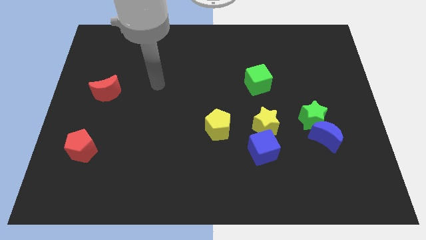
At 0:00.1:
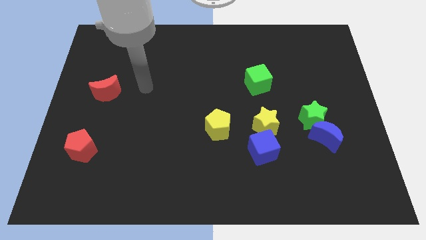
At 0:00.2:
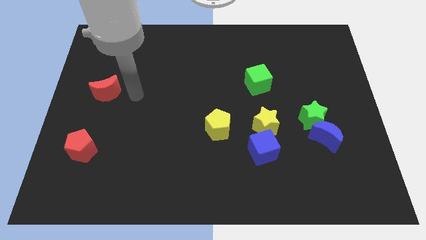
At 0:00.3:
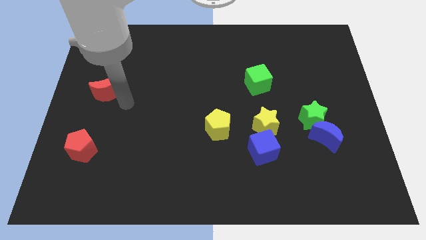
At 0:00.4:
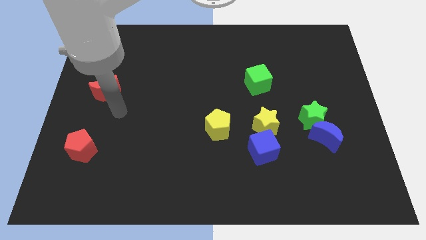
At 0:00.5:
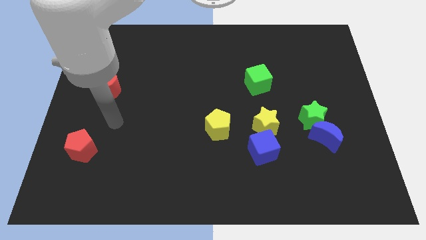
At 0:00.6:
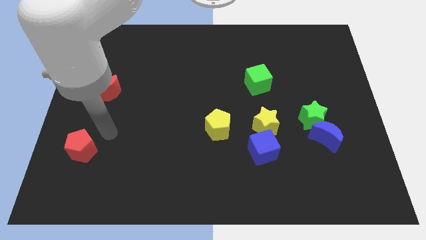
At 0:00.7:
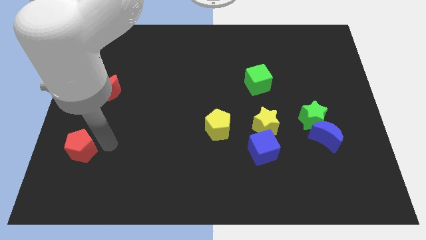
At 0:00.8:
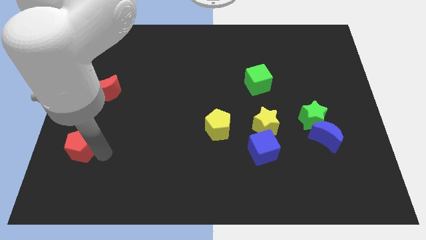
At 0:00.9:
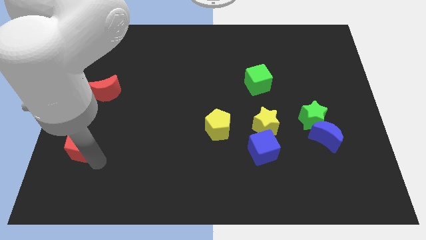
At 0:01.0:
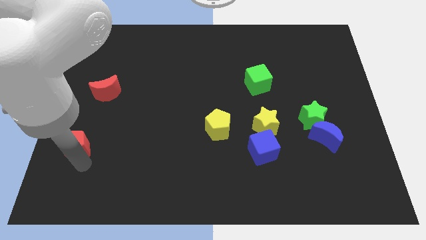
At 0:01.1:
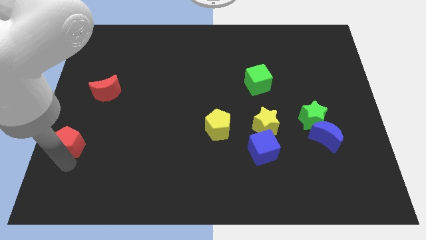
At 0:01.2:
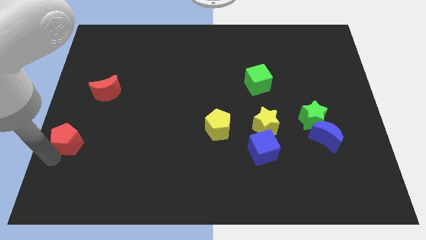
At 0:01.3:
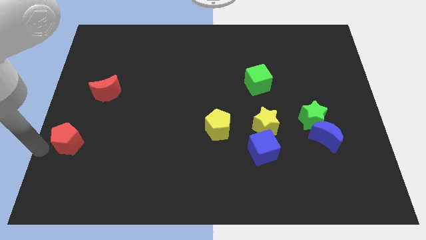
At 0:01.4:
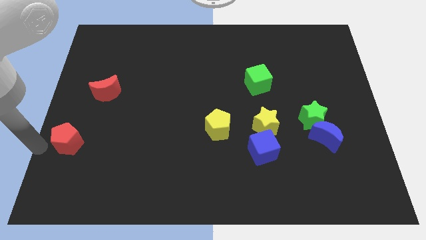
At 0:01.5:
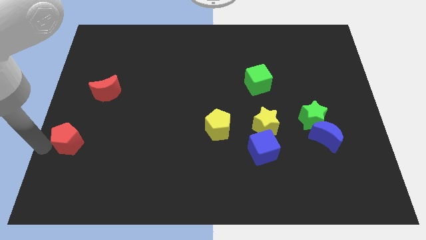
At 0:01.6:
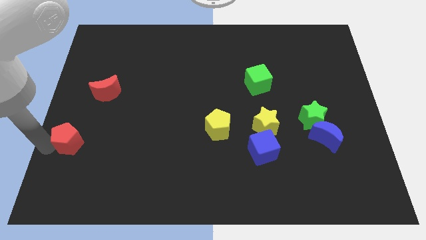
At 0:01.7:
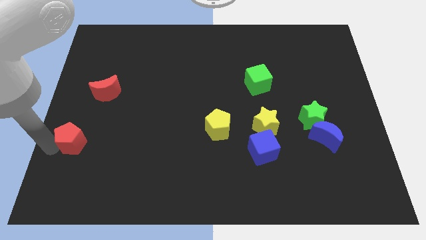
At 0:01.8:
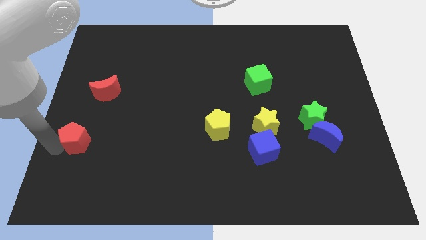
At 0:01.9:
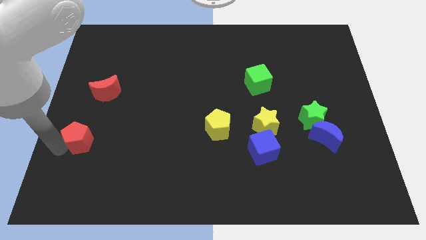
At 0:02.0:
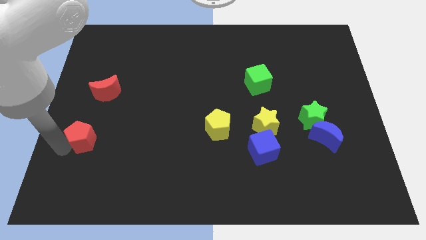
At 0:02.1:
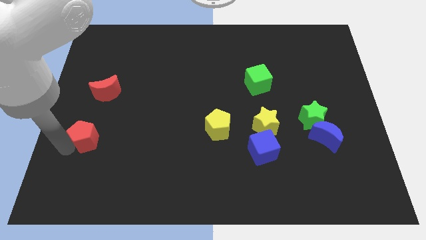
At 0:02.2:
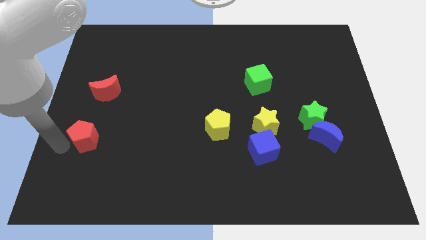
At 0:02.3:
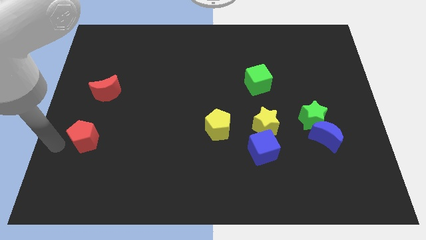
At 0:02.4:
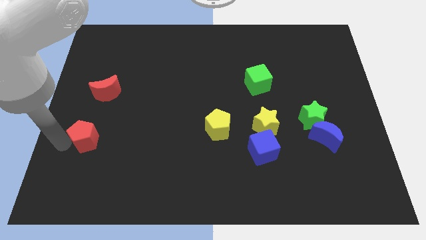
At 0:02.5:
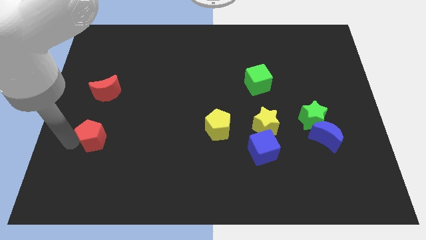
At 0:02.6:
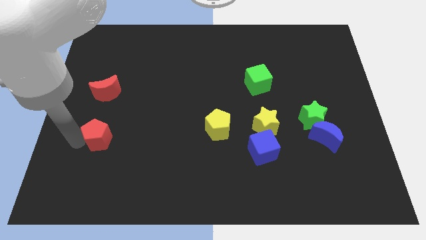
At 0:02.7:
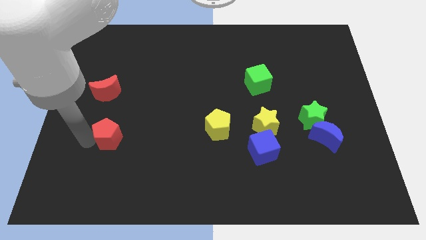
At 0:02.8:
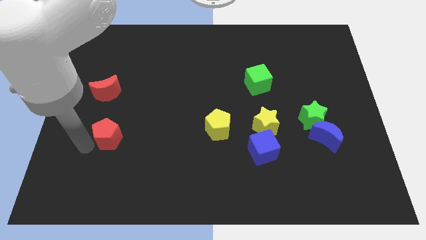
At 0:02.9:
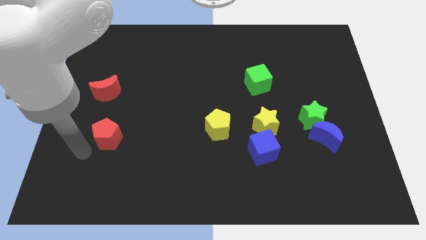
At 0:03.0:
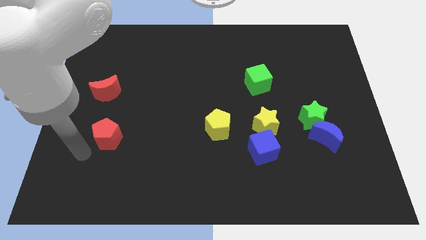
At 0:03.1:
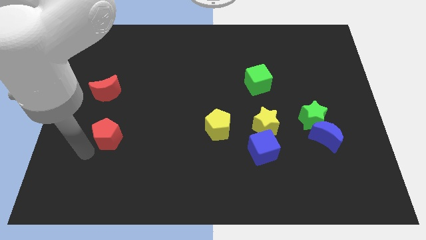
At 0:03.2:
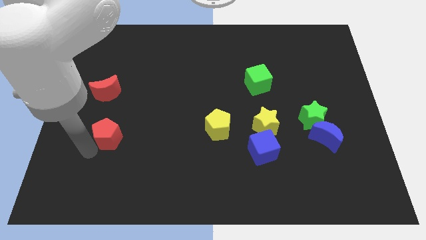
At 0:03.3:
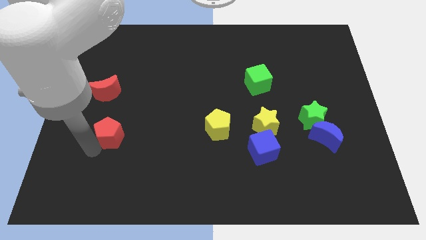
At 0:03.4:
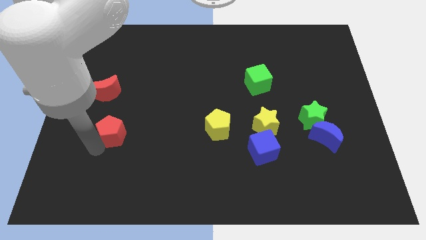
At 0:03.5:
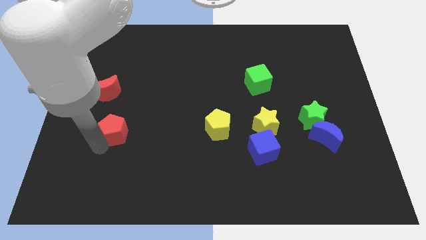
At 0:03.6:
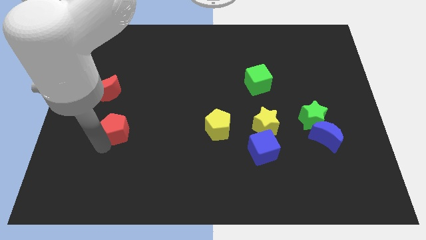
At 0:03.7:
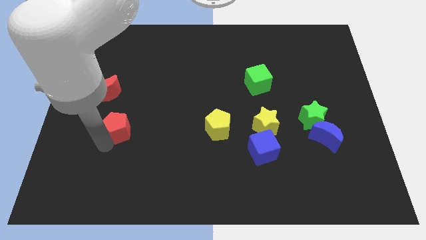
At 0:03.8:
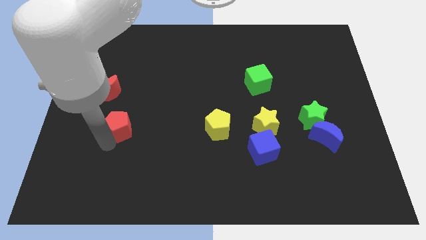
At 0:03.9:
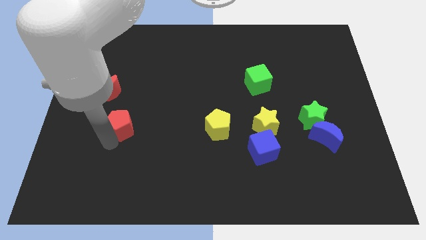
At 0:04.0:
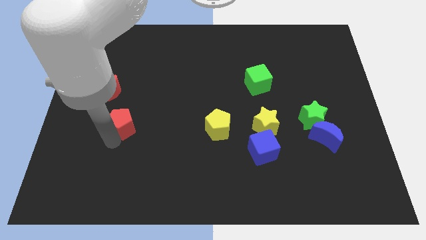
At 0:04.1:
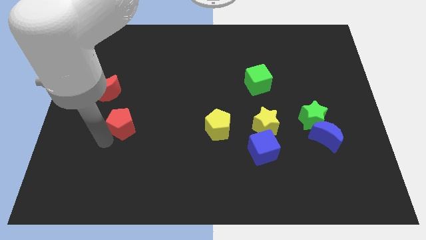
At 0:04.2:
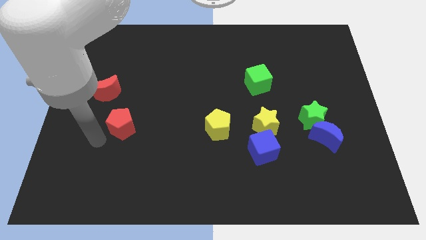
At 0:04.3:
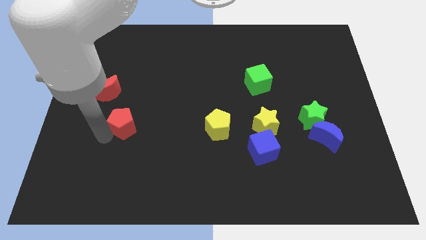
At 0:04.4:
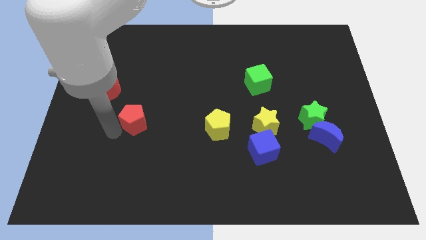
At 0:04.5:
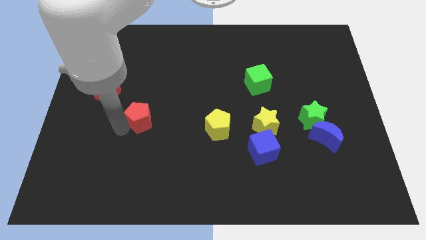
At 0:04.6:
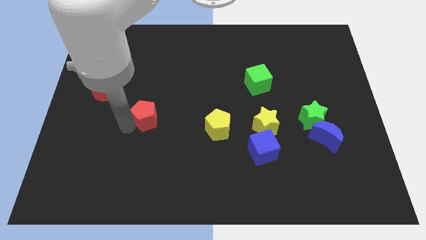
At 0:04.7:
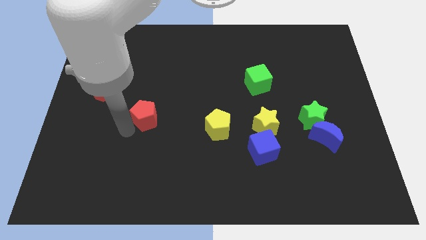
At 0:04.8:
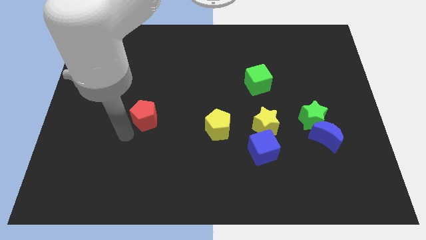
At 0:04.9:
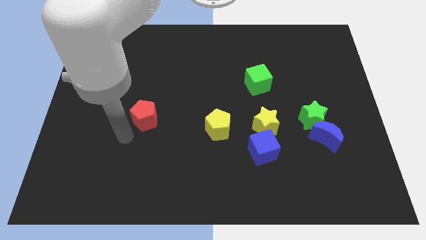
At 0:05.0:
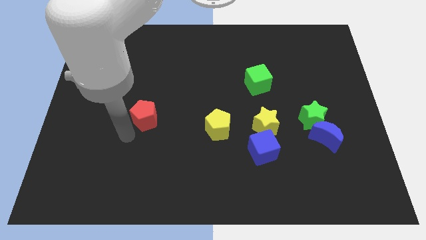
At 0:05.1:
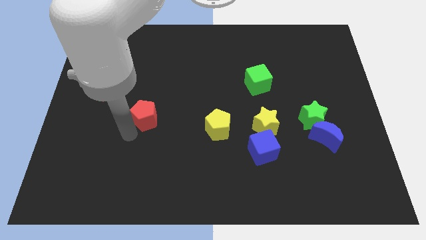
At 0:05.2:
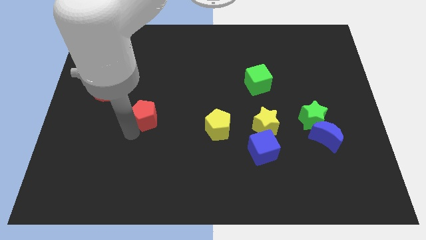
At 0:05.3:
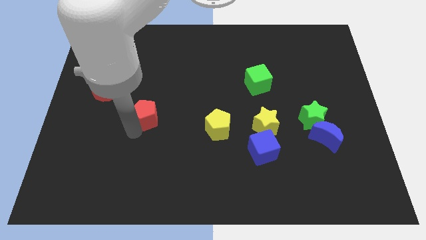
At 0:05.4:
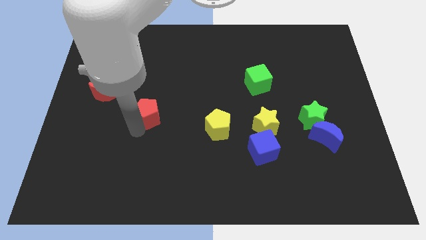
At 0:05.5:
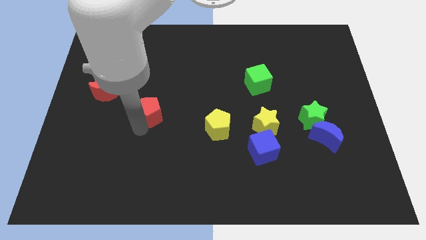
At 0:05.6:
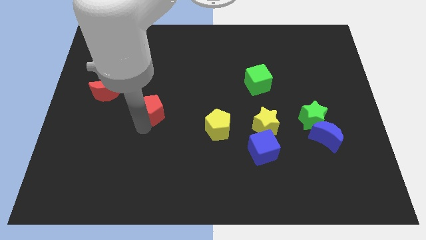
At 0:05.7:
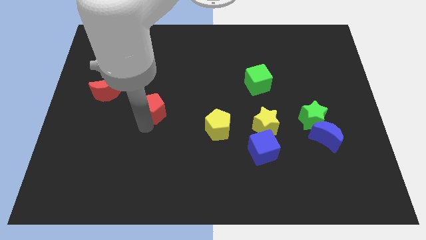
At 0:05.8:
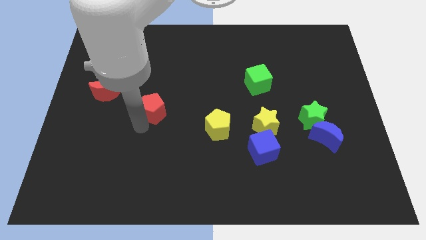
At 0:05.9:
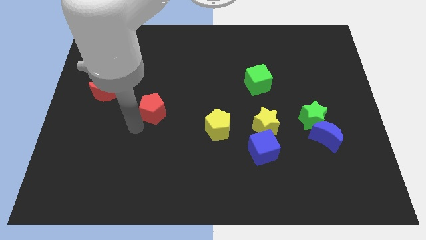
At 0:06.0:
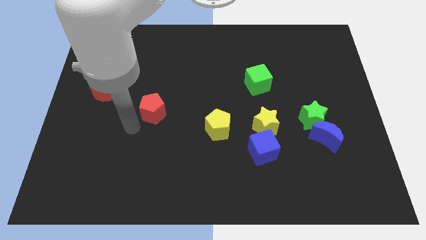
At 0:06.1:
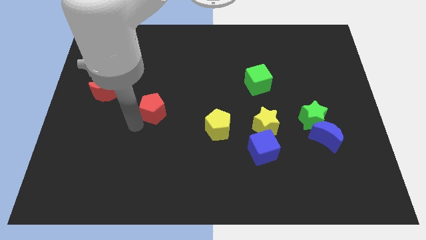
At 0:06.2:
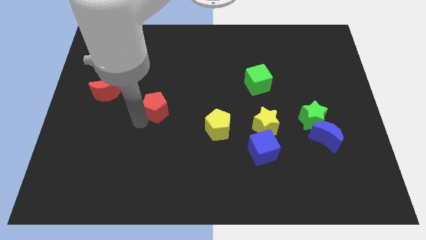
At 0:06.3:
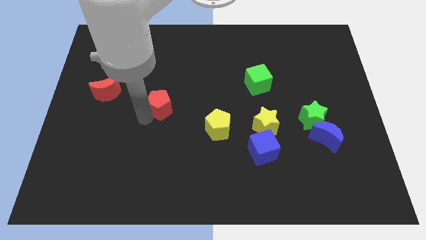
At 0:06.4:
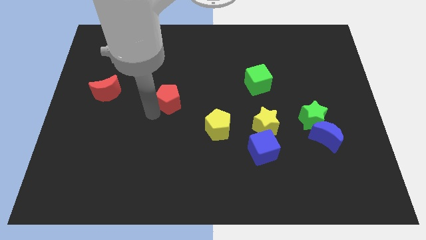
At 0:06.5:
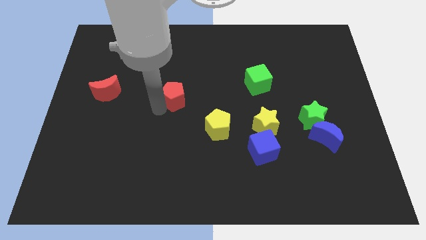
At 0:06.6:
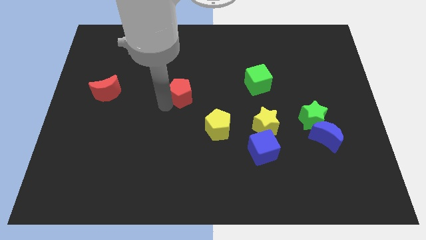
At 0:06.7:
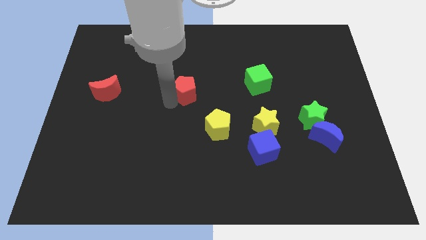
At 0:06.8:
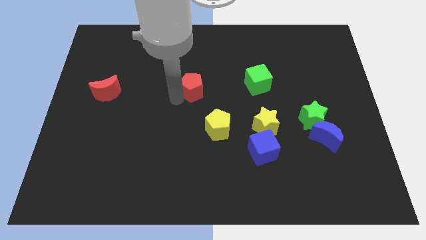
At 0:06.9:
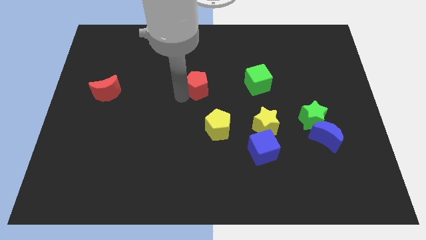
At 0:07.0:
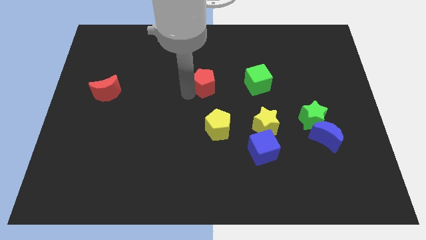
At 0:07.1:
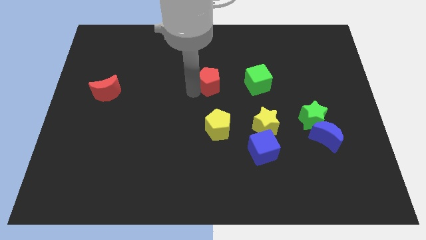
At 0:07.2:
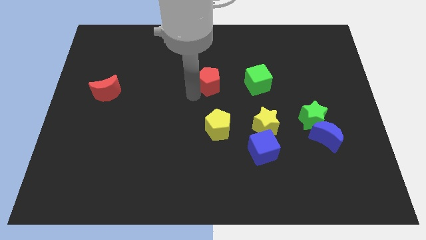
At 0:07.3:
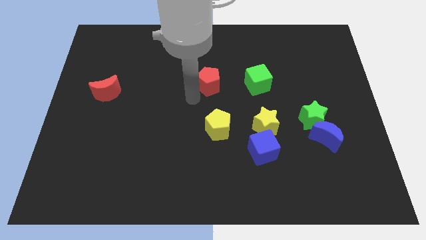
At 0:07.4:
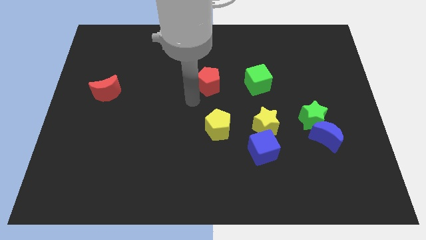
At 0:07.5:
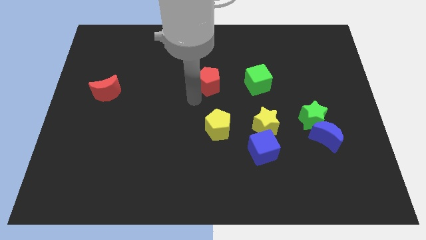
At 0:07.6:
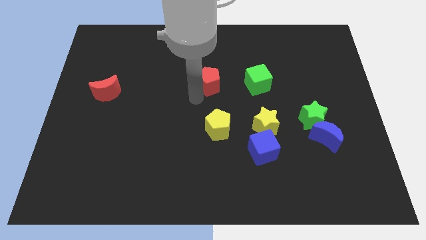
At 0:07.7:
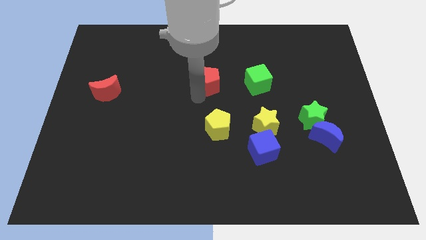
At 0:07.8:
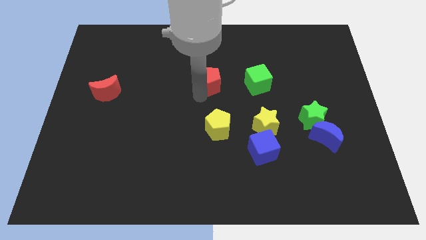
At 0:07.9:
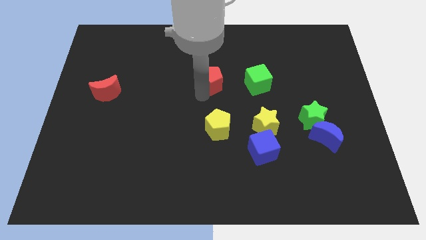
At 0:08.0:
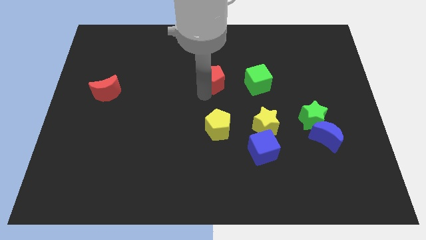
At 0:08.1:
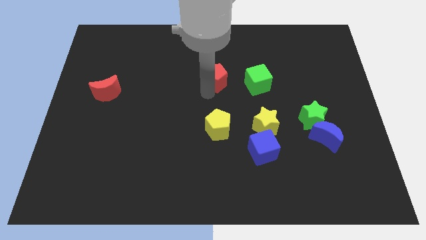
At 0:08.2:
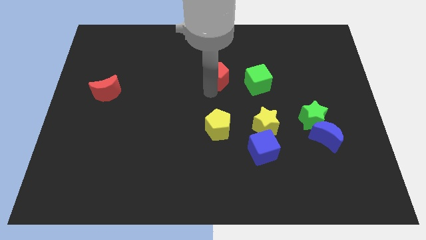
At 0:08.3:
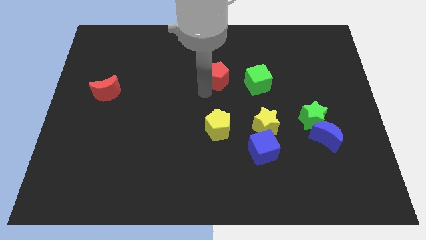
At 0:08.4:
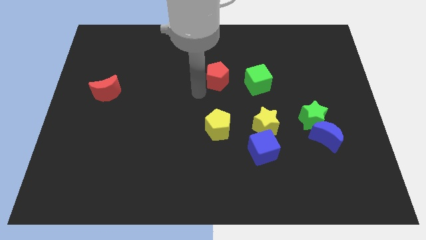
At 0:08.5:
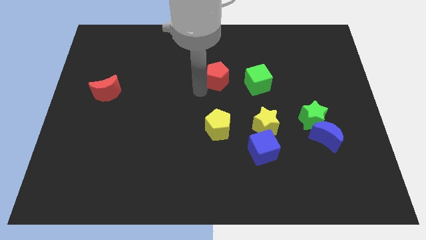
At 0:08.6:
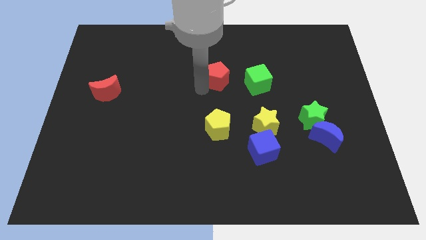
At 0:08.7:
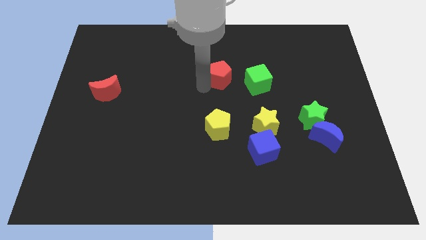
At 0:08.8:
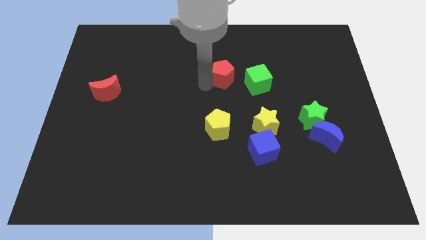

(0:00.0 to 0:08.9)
move the red pentagon to the top left side of the green cube
